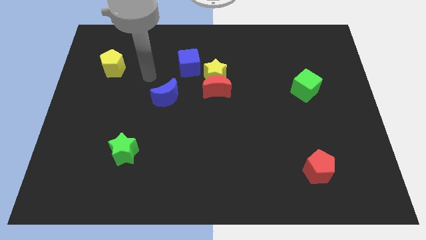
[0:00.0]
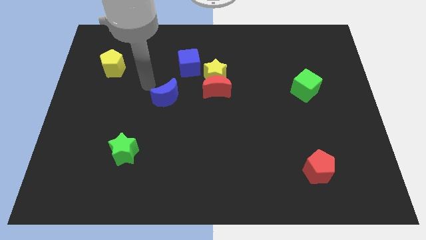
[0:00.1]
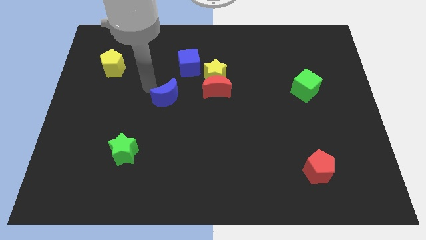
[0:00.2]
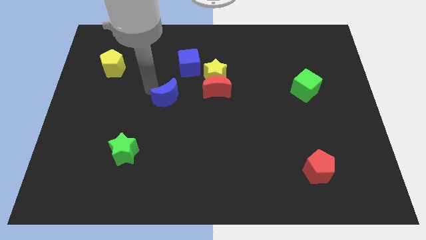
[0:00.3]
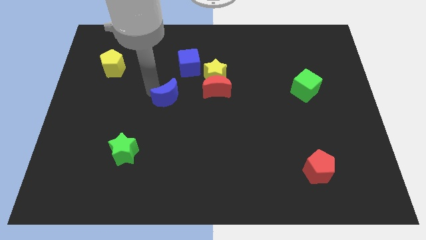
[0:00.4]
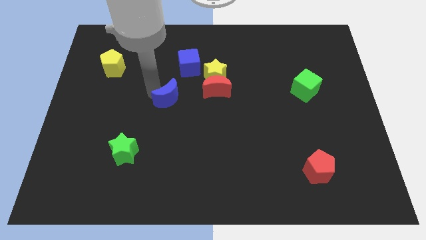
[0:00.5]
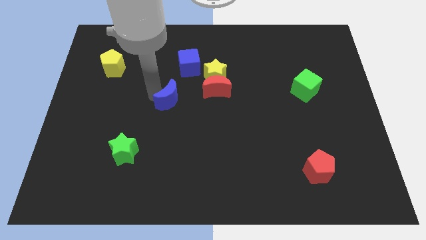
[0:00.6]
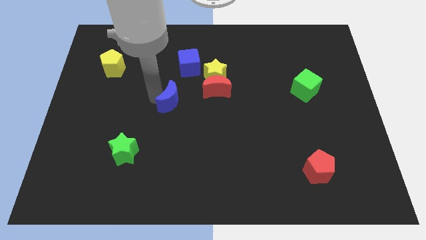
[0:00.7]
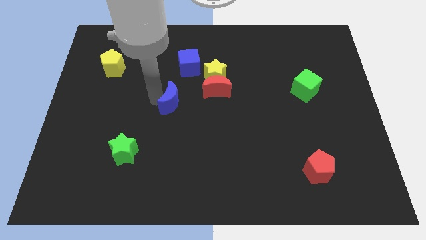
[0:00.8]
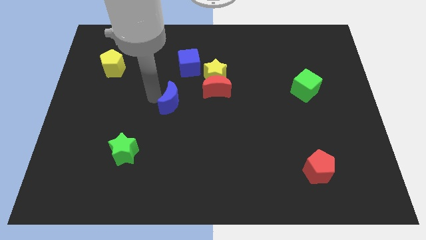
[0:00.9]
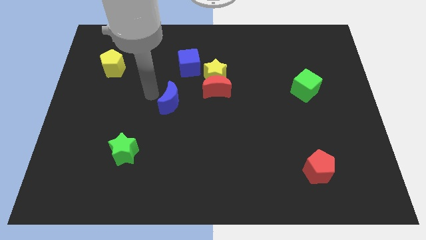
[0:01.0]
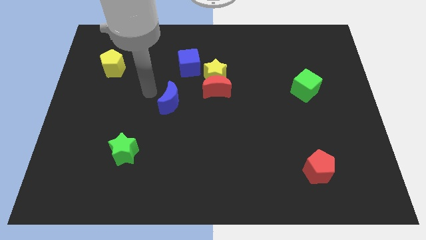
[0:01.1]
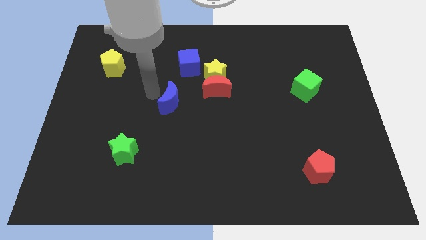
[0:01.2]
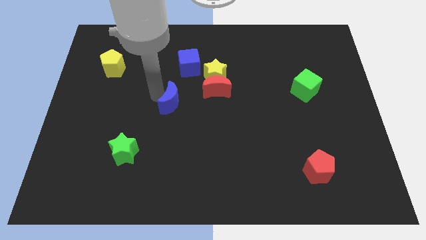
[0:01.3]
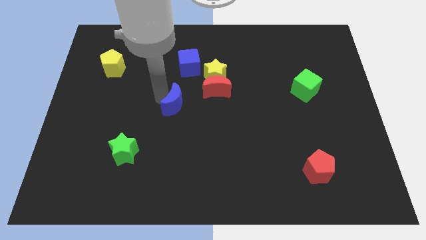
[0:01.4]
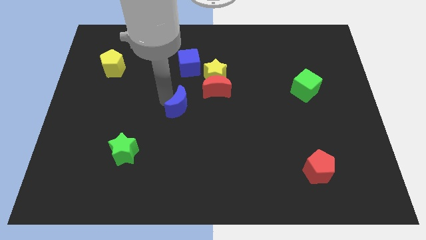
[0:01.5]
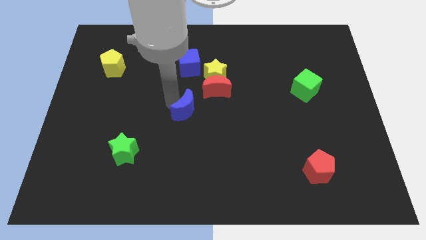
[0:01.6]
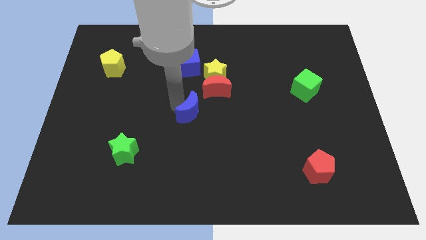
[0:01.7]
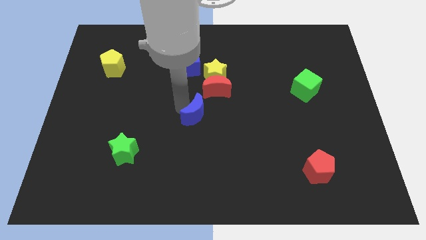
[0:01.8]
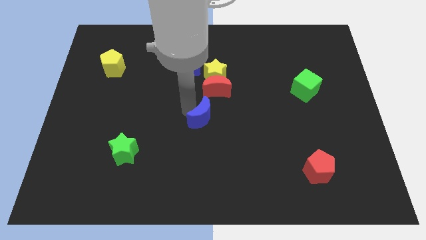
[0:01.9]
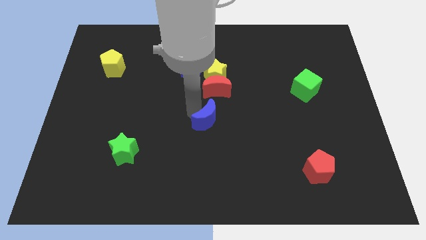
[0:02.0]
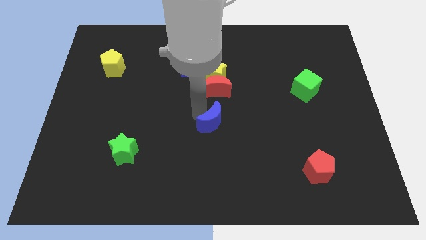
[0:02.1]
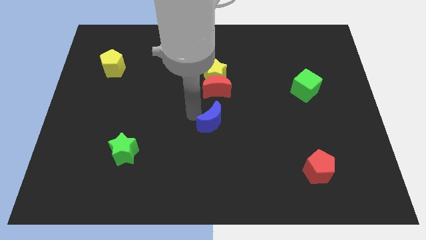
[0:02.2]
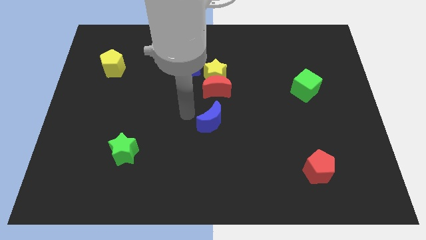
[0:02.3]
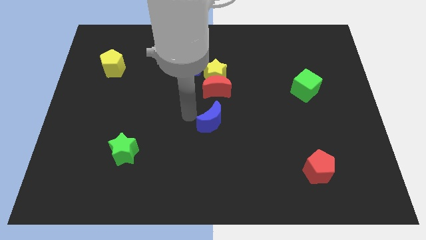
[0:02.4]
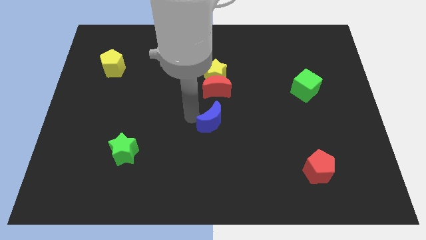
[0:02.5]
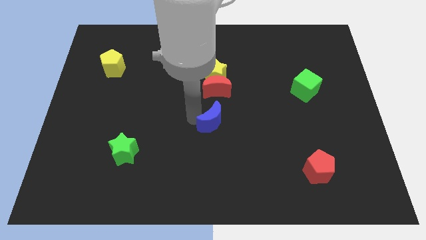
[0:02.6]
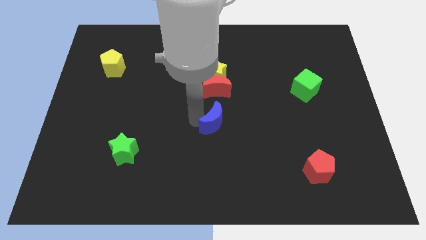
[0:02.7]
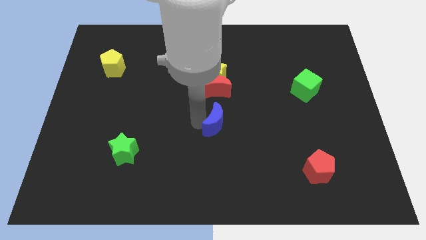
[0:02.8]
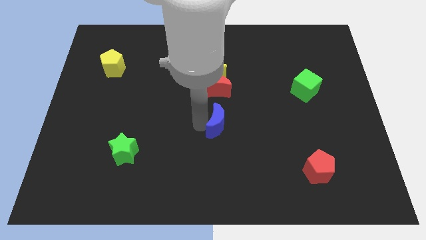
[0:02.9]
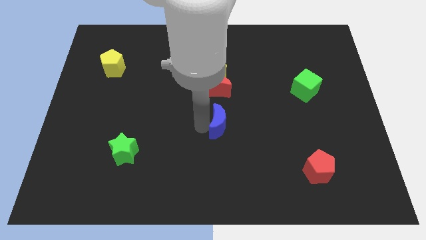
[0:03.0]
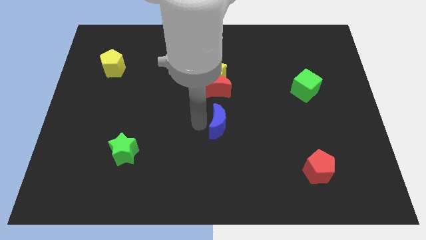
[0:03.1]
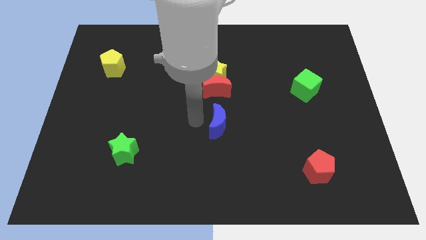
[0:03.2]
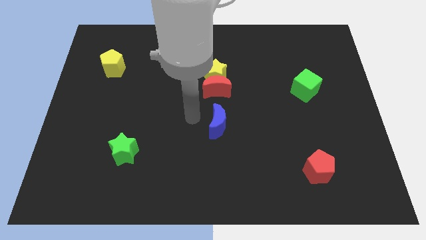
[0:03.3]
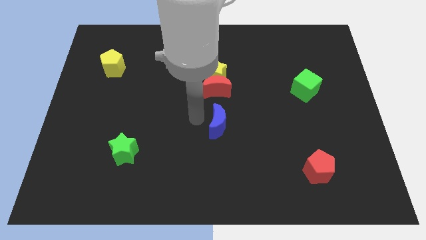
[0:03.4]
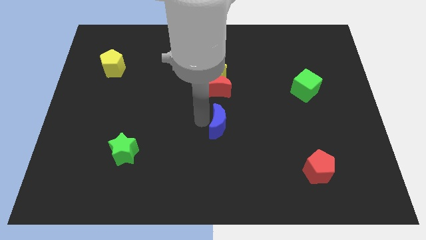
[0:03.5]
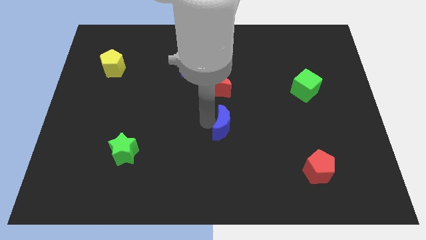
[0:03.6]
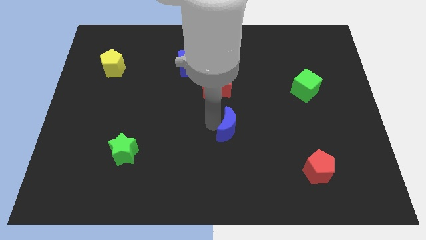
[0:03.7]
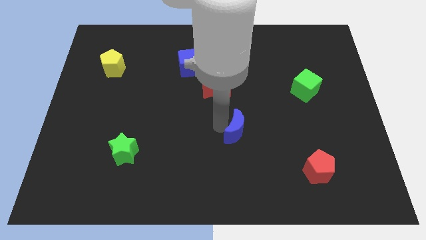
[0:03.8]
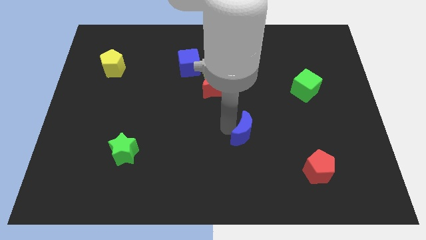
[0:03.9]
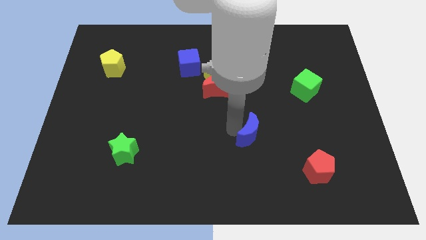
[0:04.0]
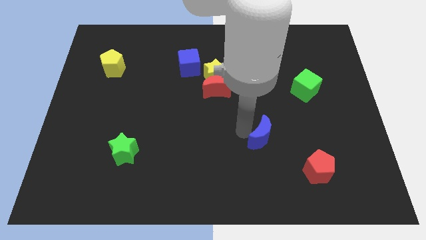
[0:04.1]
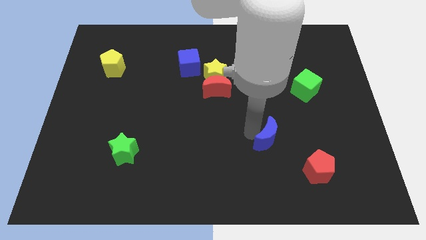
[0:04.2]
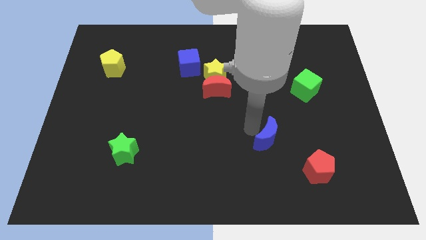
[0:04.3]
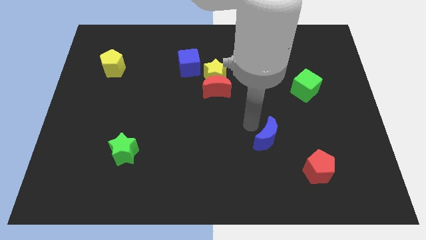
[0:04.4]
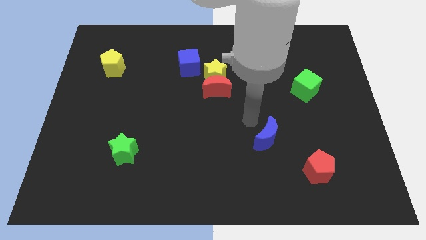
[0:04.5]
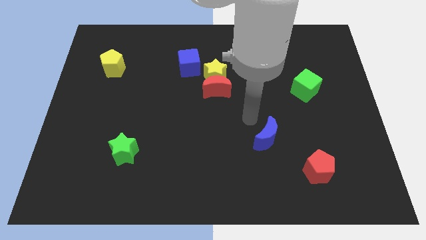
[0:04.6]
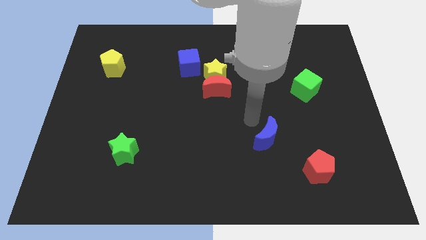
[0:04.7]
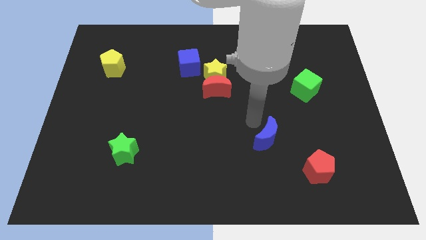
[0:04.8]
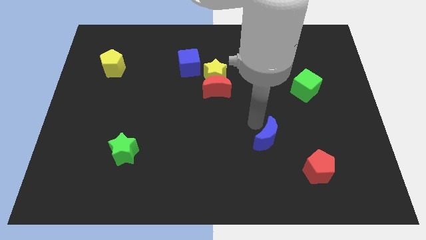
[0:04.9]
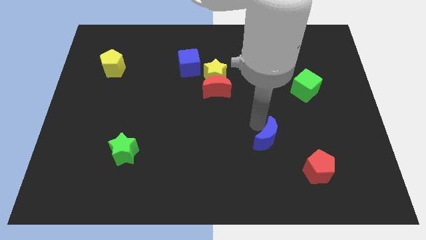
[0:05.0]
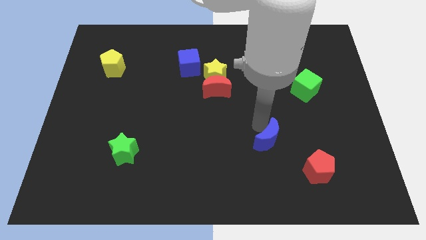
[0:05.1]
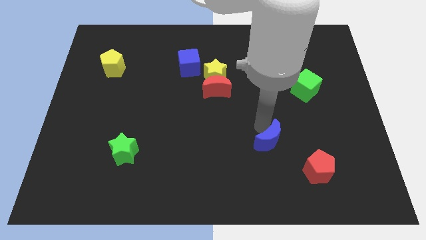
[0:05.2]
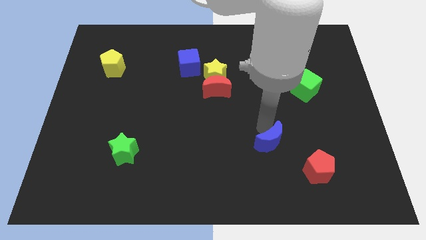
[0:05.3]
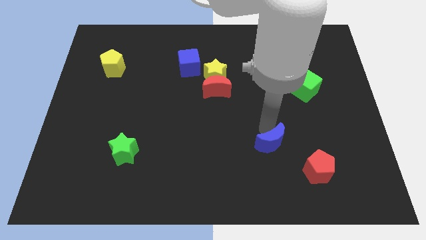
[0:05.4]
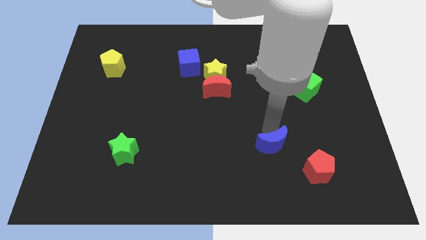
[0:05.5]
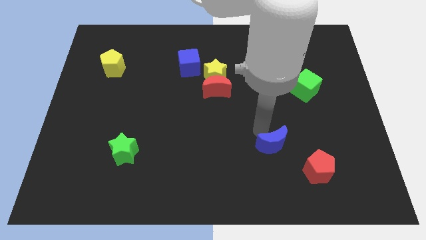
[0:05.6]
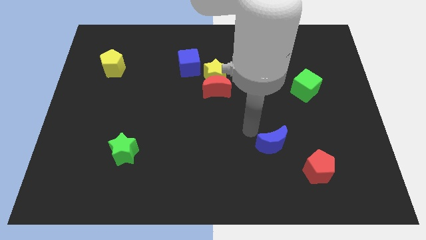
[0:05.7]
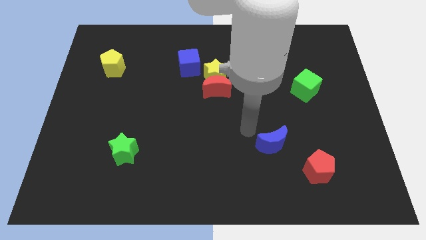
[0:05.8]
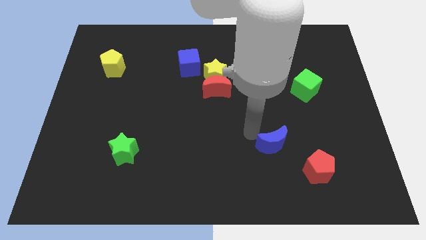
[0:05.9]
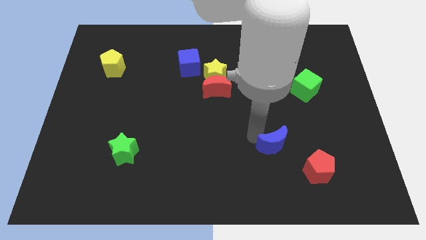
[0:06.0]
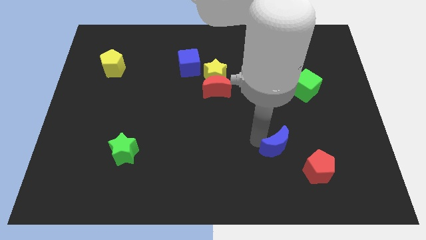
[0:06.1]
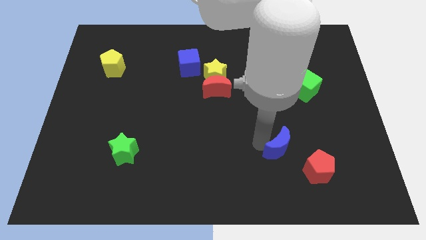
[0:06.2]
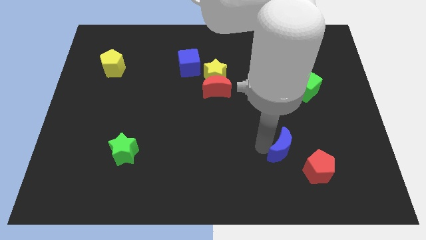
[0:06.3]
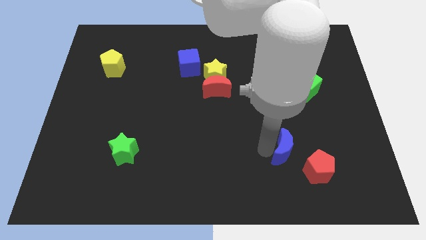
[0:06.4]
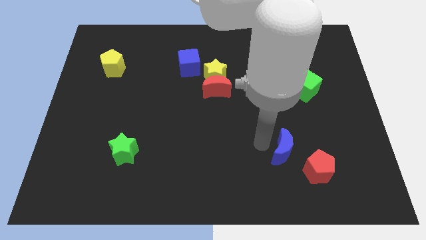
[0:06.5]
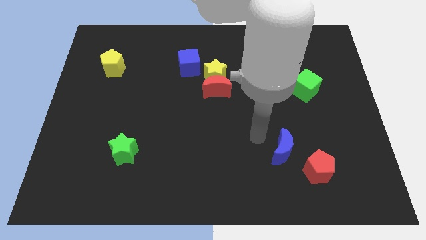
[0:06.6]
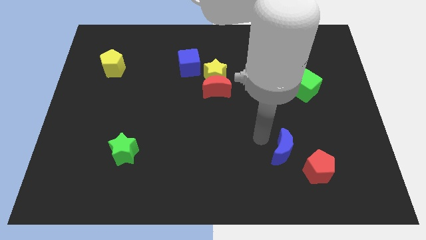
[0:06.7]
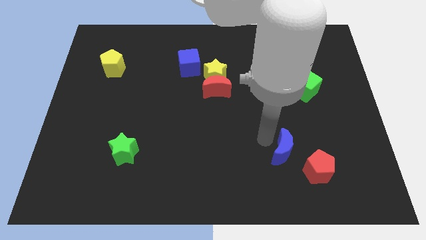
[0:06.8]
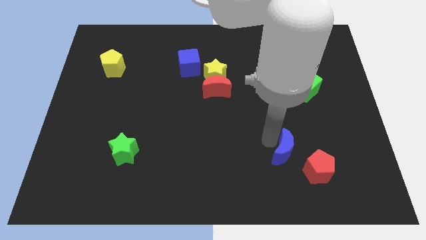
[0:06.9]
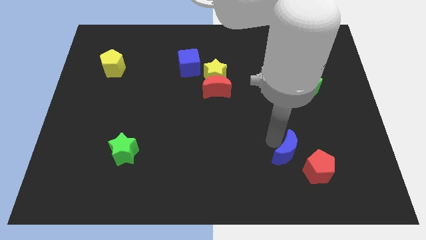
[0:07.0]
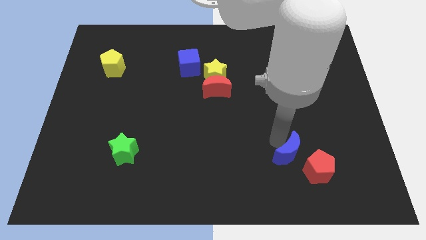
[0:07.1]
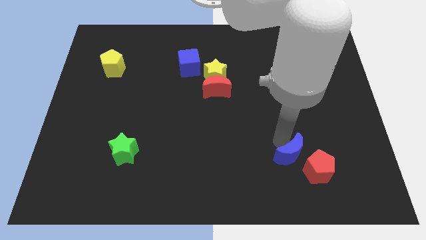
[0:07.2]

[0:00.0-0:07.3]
slide the blue moon to the red pentagon

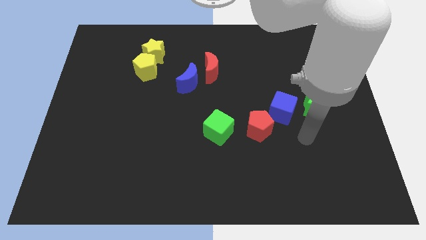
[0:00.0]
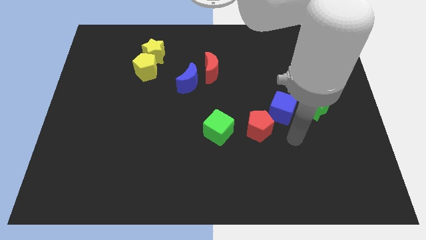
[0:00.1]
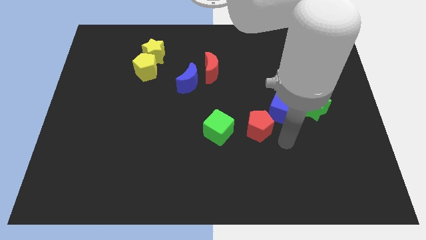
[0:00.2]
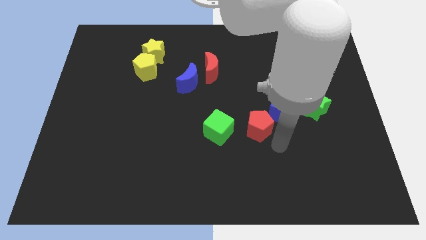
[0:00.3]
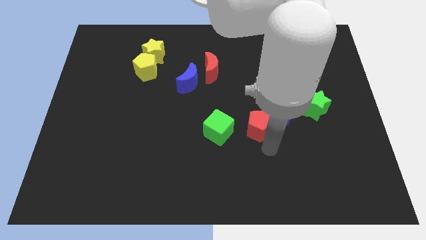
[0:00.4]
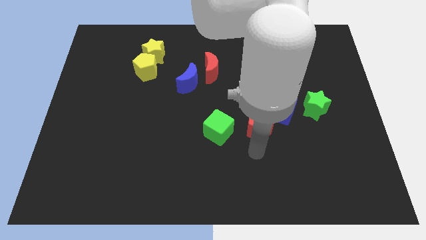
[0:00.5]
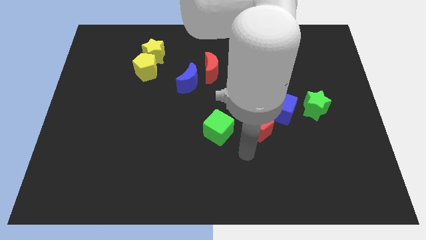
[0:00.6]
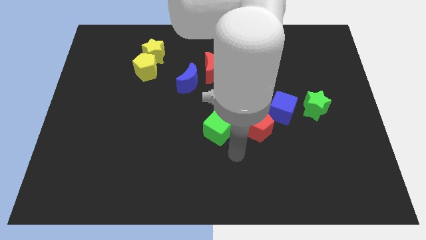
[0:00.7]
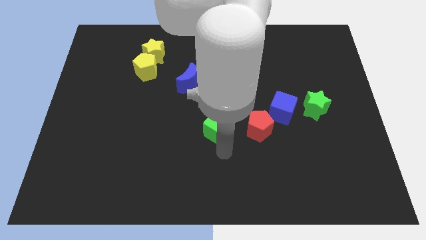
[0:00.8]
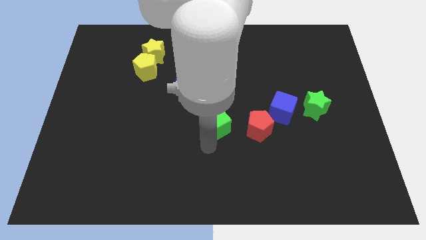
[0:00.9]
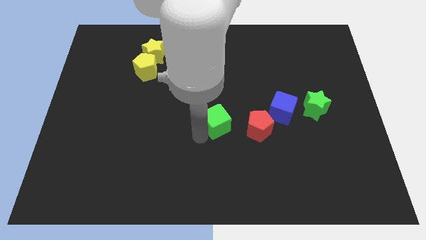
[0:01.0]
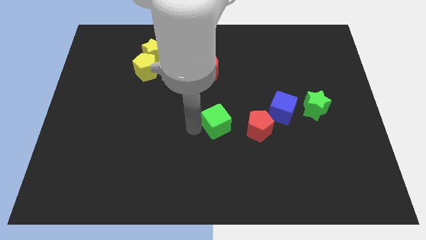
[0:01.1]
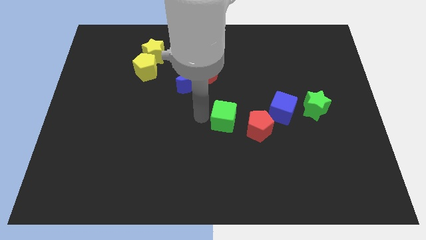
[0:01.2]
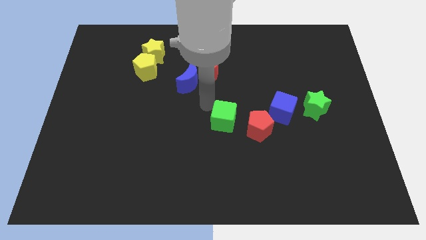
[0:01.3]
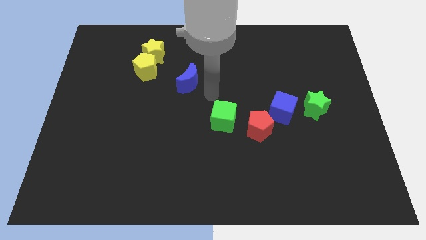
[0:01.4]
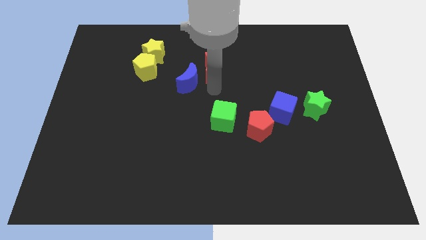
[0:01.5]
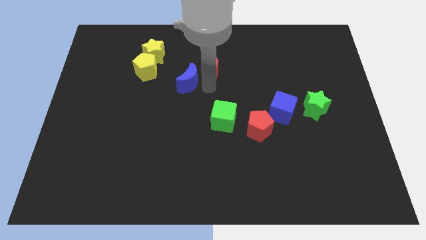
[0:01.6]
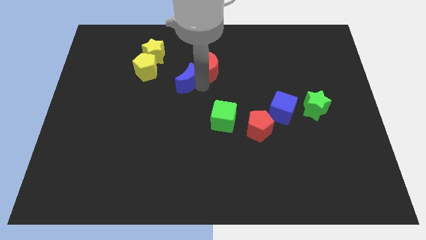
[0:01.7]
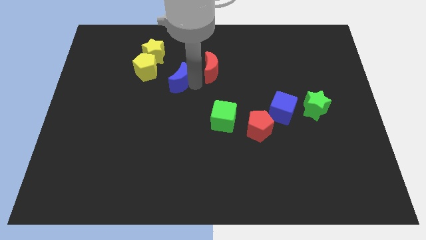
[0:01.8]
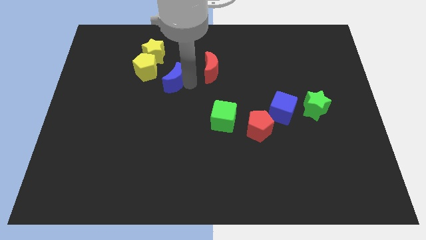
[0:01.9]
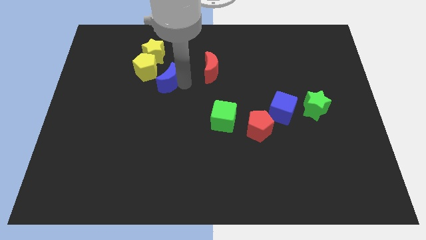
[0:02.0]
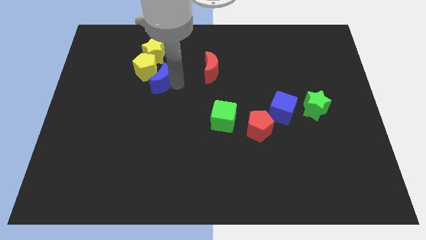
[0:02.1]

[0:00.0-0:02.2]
put the blue moon close to the yellow pentagon
